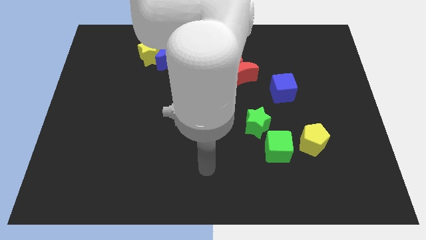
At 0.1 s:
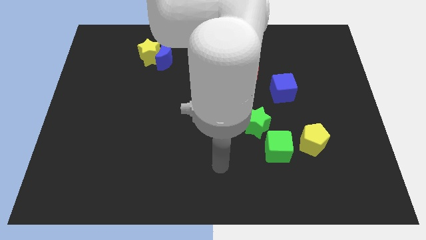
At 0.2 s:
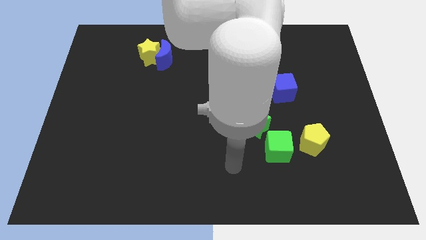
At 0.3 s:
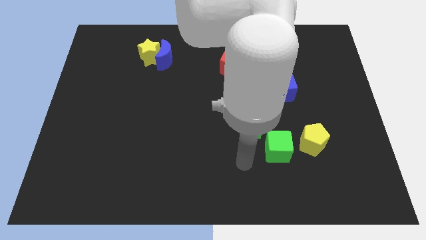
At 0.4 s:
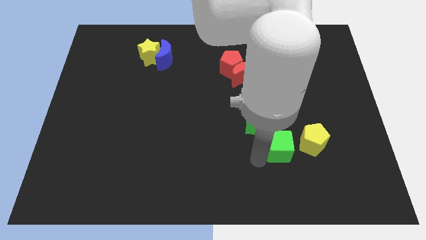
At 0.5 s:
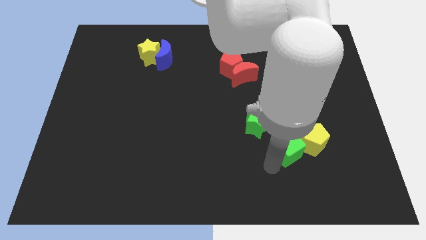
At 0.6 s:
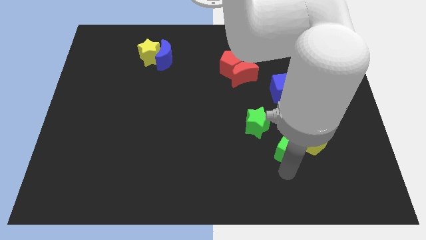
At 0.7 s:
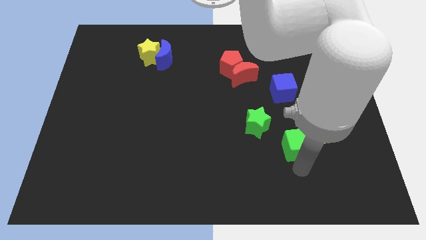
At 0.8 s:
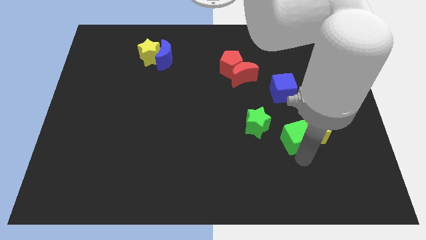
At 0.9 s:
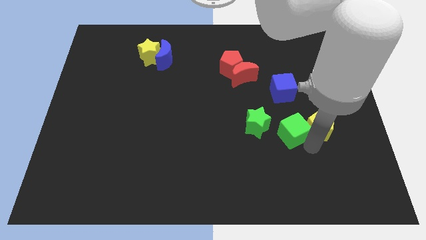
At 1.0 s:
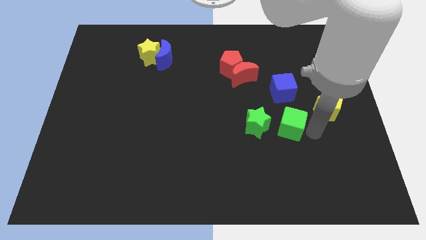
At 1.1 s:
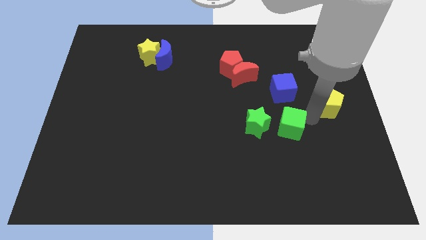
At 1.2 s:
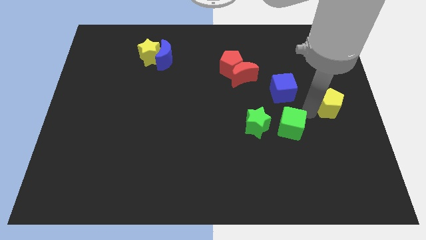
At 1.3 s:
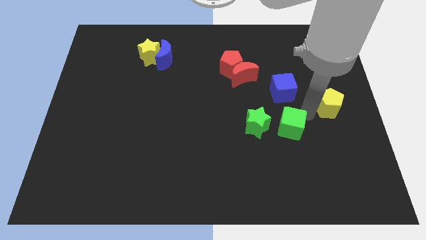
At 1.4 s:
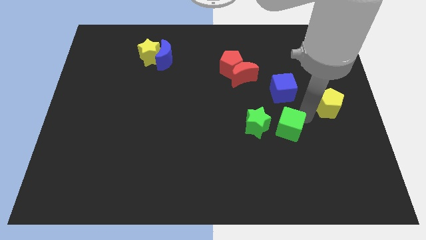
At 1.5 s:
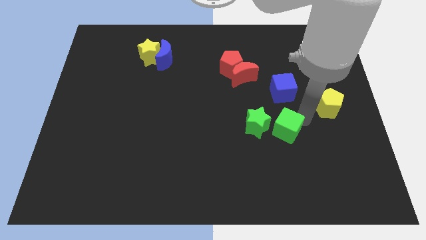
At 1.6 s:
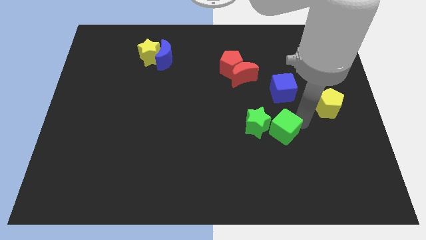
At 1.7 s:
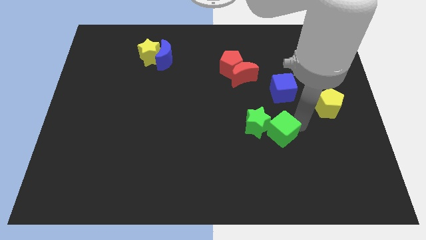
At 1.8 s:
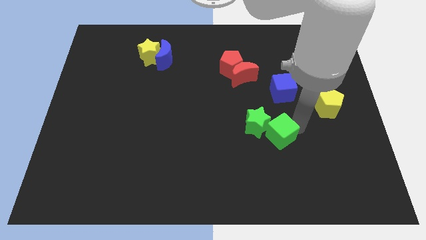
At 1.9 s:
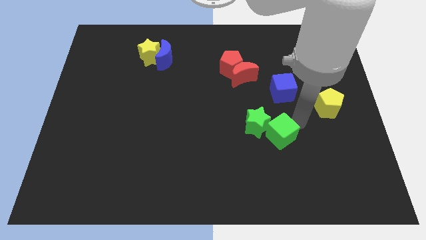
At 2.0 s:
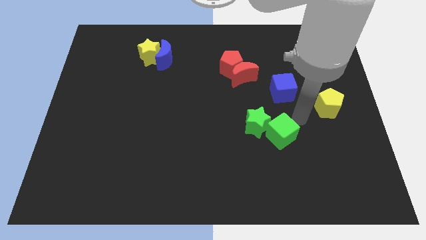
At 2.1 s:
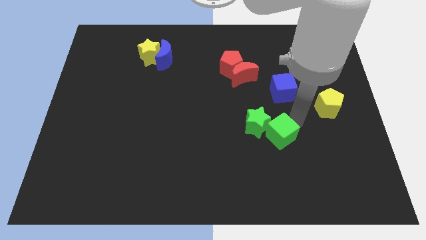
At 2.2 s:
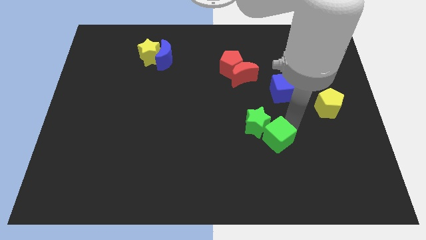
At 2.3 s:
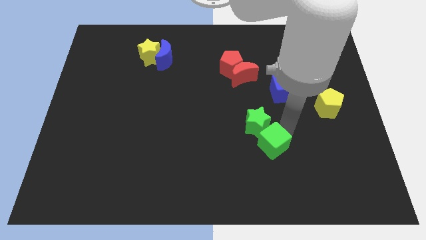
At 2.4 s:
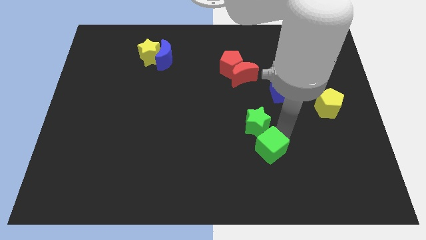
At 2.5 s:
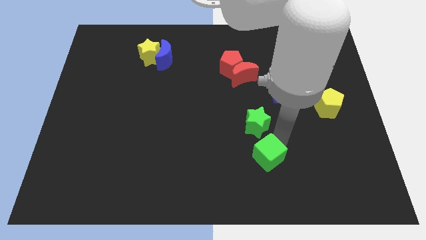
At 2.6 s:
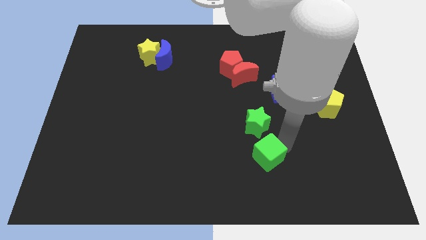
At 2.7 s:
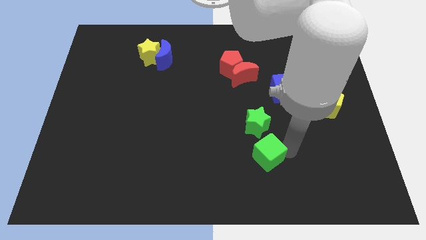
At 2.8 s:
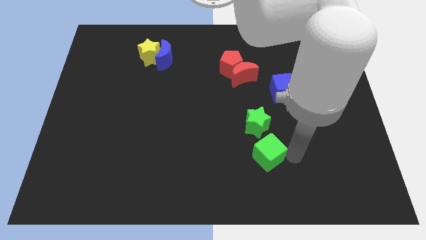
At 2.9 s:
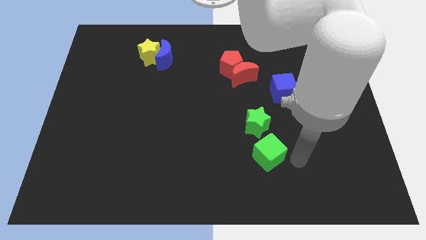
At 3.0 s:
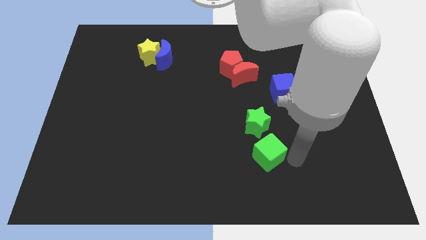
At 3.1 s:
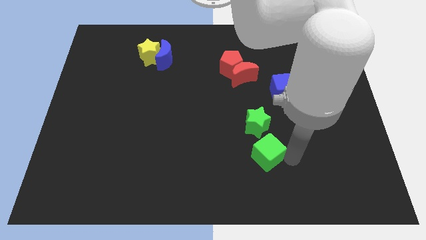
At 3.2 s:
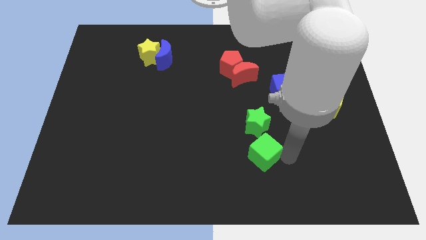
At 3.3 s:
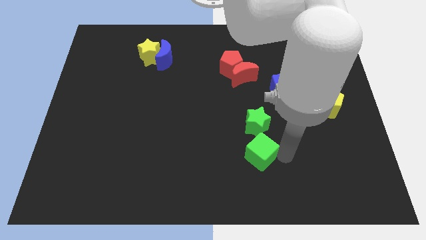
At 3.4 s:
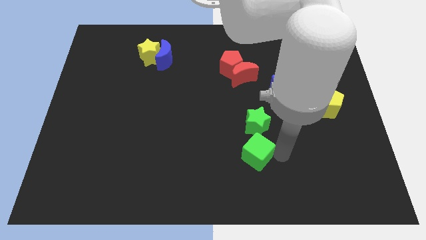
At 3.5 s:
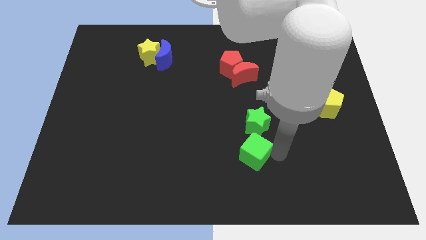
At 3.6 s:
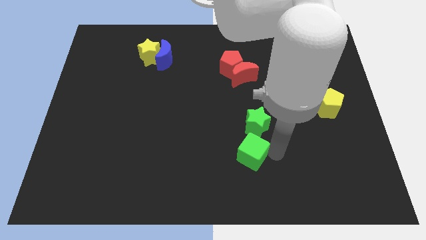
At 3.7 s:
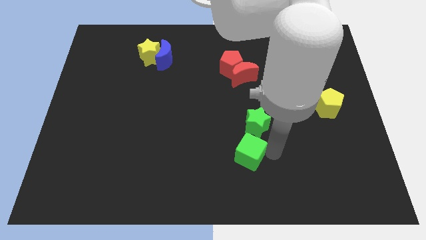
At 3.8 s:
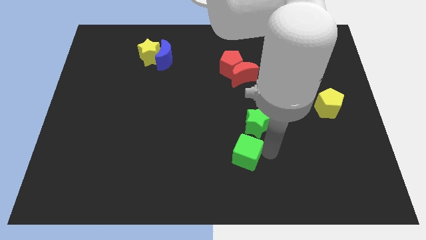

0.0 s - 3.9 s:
slightly move the green cube left

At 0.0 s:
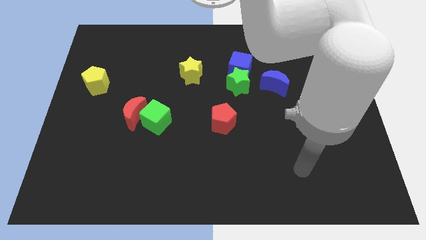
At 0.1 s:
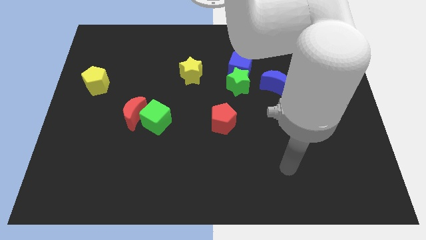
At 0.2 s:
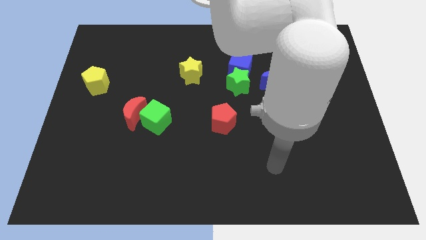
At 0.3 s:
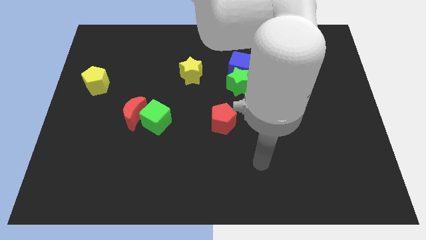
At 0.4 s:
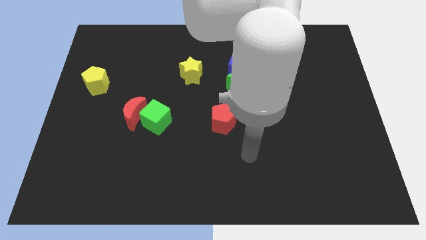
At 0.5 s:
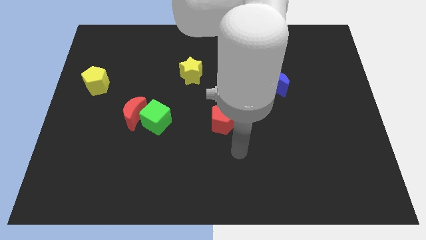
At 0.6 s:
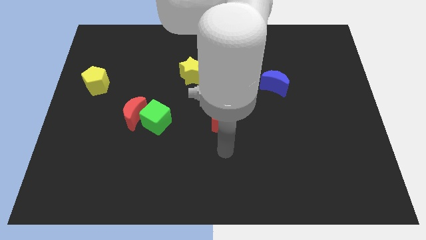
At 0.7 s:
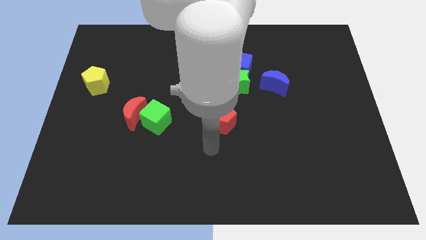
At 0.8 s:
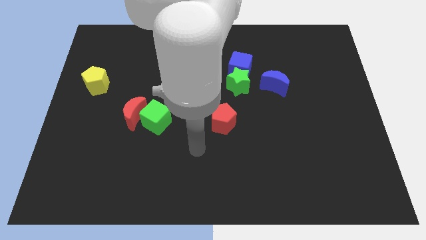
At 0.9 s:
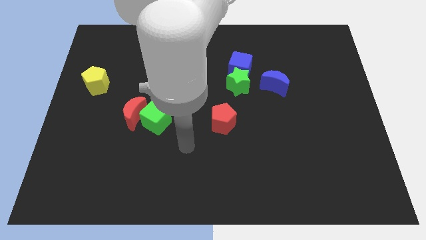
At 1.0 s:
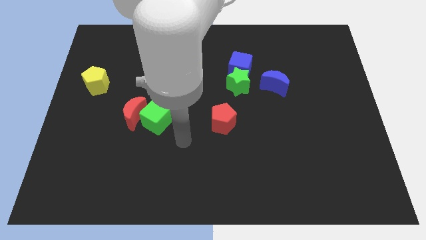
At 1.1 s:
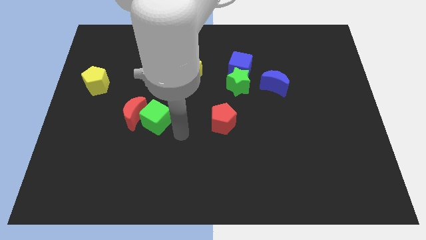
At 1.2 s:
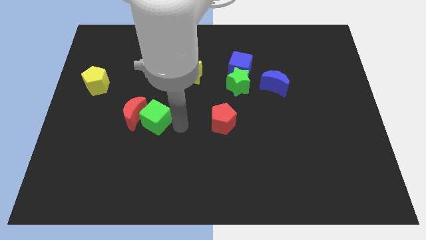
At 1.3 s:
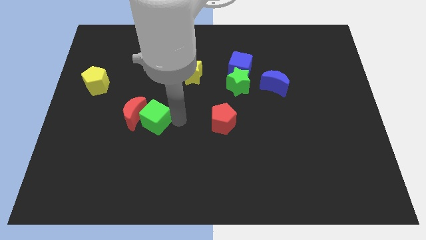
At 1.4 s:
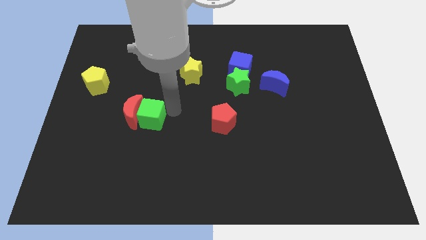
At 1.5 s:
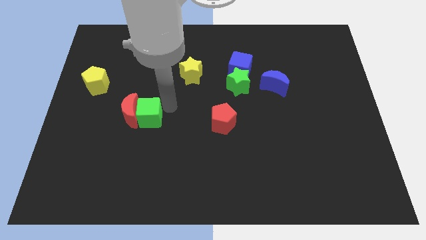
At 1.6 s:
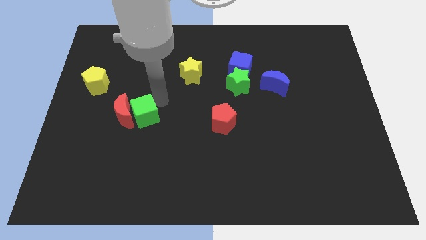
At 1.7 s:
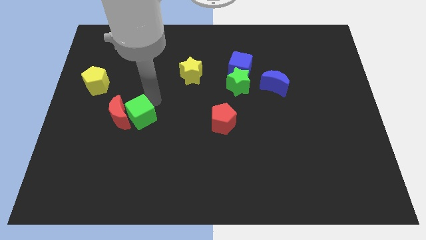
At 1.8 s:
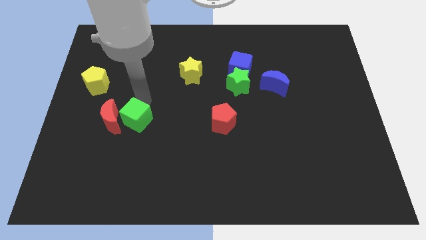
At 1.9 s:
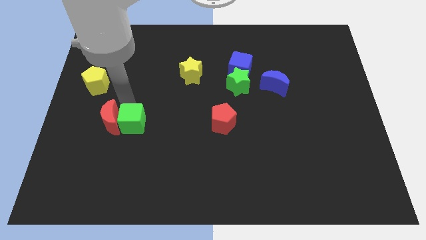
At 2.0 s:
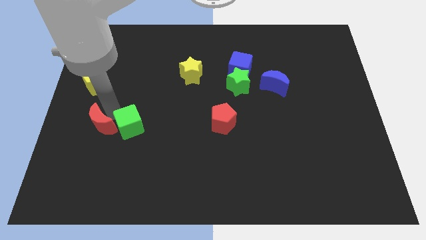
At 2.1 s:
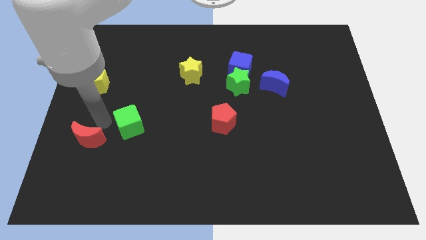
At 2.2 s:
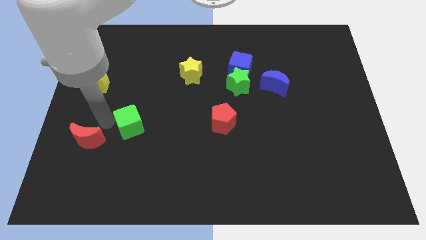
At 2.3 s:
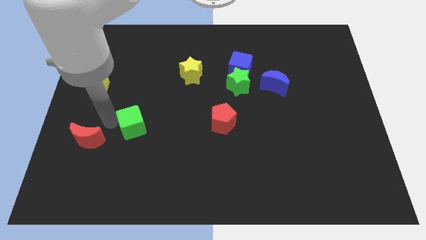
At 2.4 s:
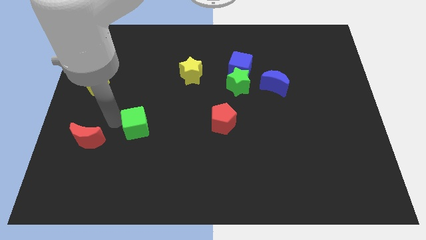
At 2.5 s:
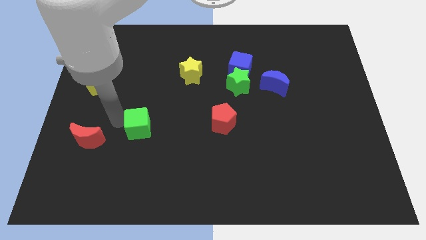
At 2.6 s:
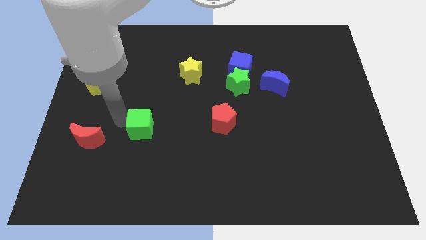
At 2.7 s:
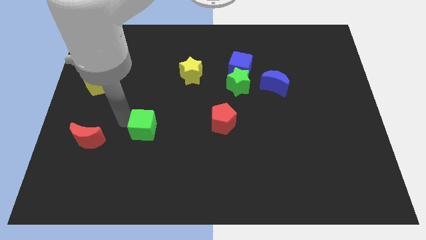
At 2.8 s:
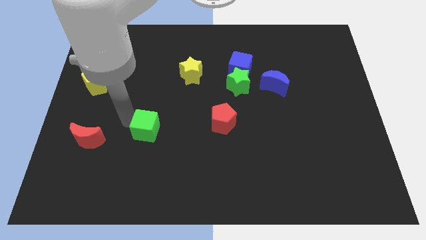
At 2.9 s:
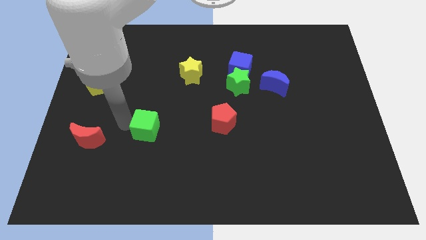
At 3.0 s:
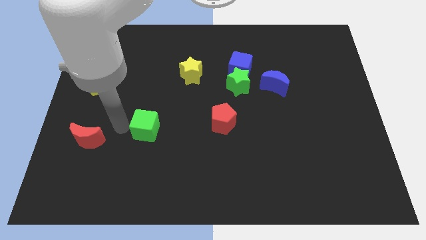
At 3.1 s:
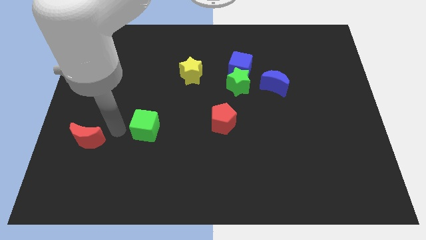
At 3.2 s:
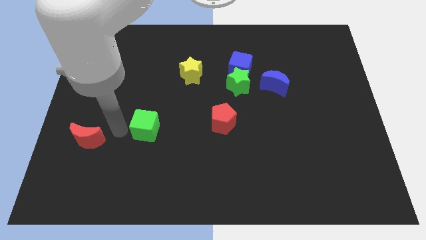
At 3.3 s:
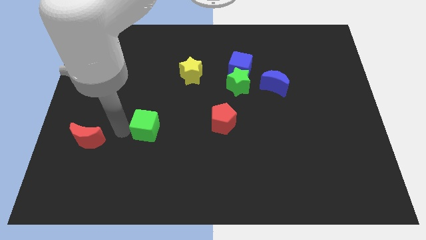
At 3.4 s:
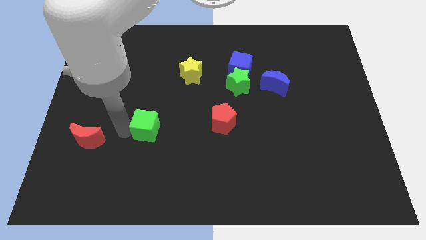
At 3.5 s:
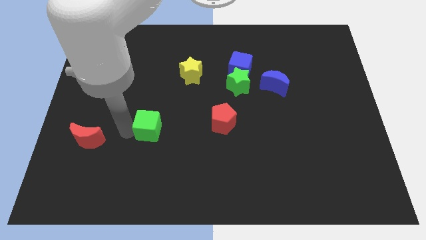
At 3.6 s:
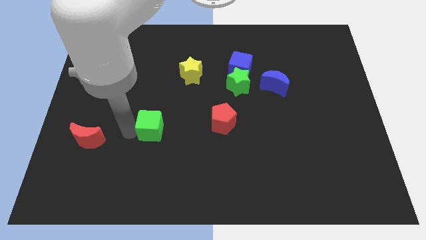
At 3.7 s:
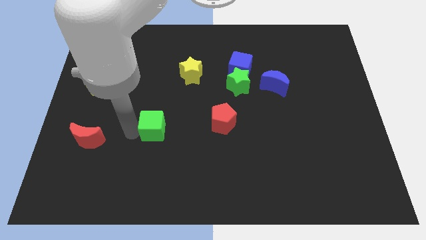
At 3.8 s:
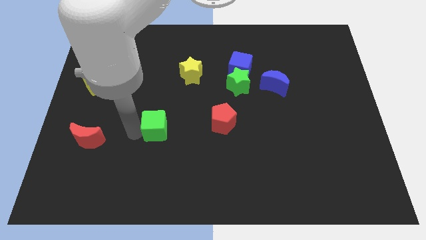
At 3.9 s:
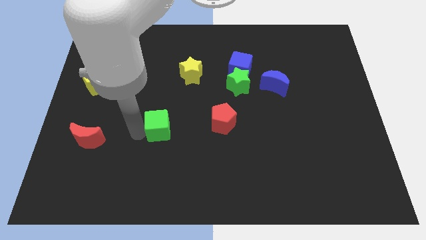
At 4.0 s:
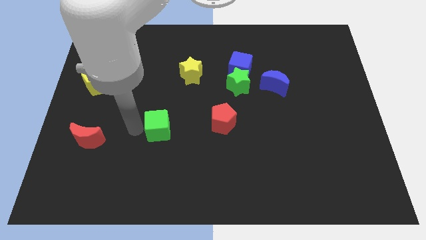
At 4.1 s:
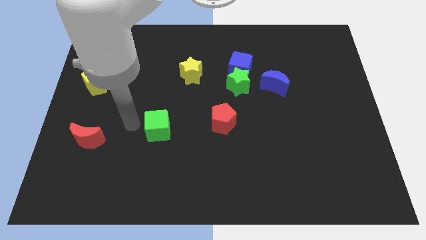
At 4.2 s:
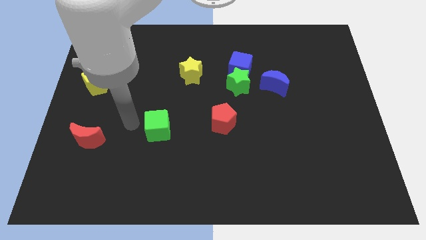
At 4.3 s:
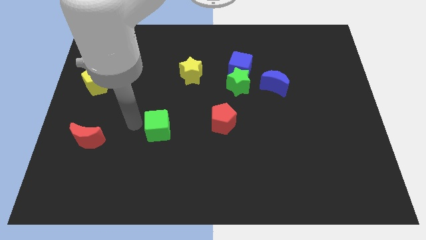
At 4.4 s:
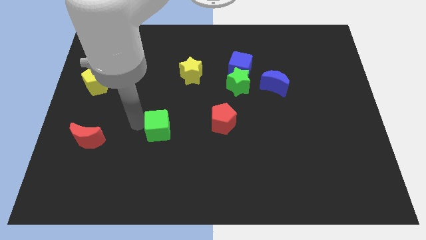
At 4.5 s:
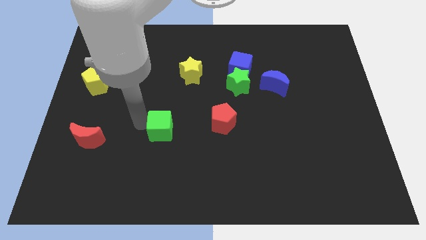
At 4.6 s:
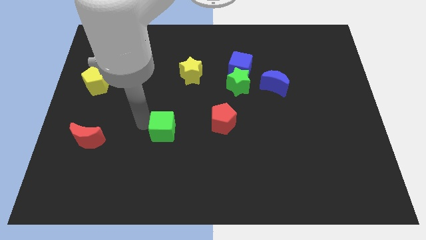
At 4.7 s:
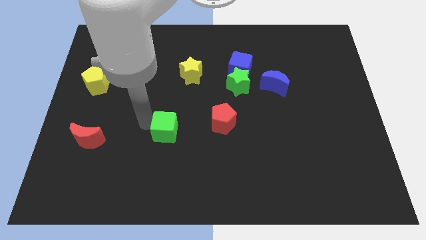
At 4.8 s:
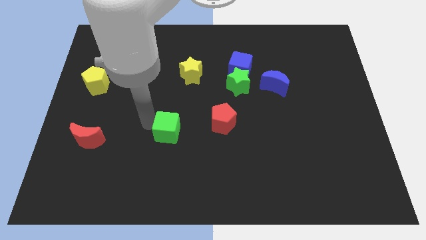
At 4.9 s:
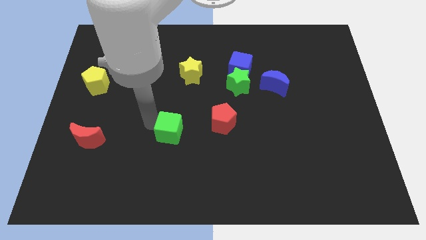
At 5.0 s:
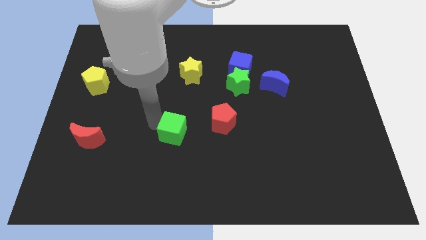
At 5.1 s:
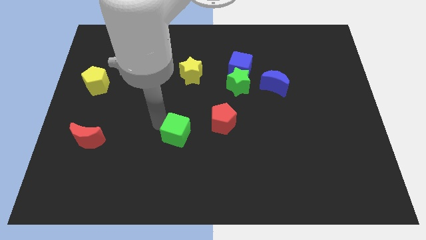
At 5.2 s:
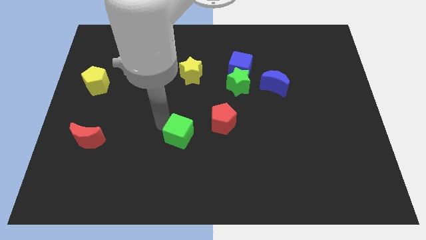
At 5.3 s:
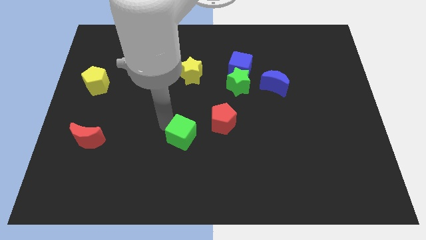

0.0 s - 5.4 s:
slightly move the green cube downwards and to the right diagonally
